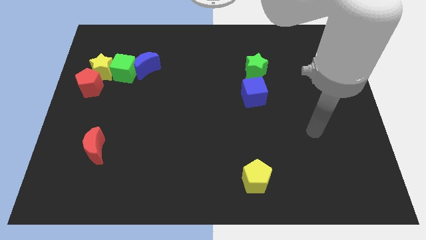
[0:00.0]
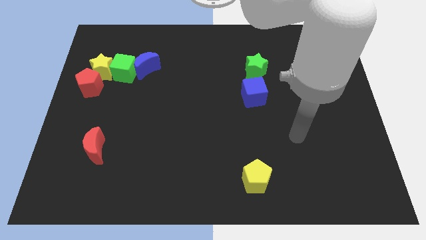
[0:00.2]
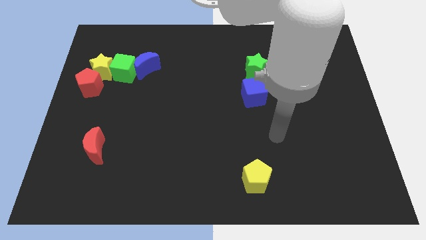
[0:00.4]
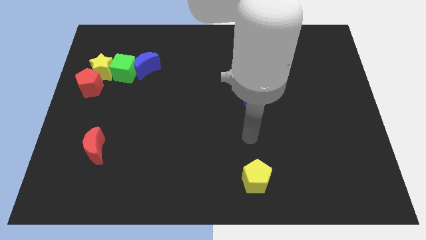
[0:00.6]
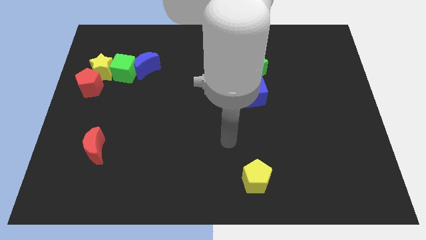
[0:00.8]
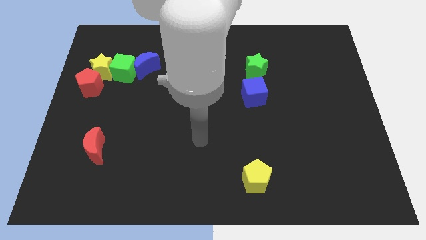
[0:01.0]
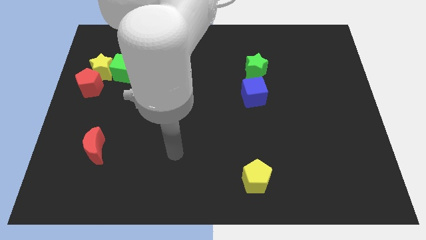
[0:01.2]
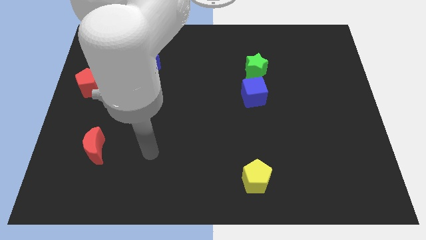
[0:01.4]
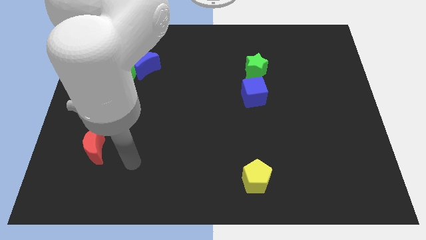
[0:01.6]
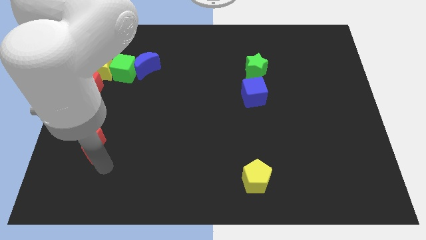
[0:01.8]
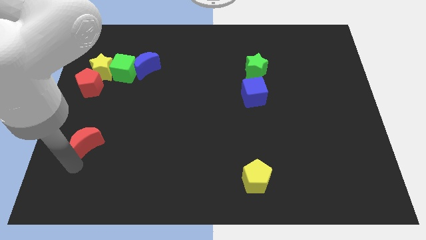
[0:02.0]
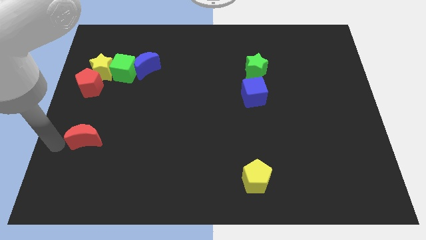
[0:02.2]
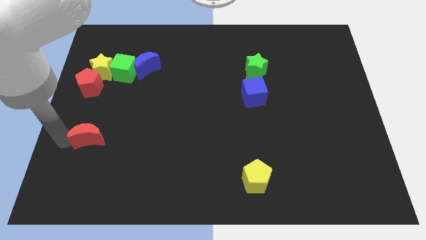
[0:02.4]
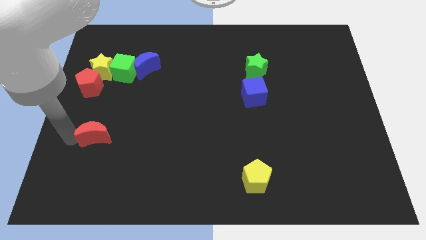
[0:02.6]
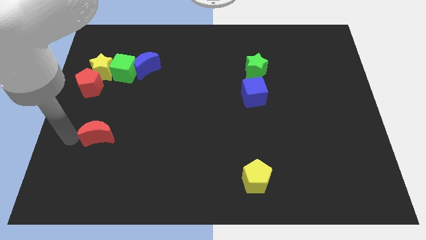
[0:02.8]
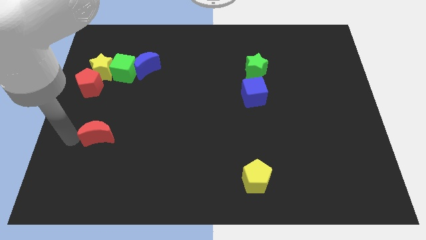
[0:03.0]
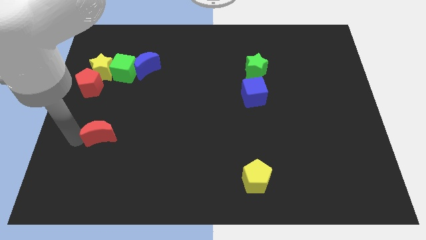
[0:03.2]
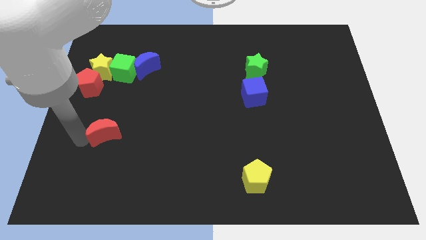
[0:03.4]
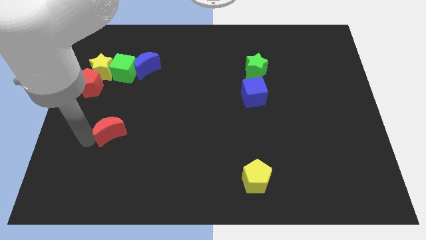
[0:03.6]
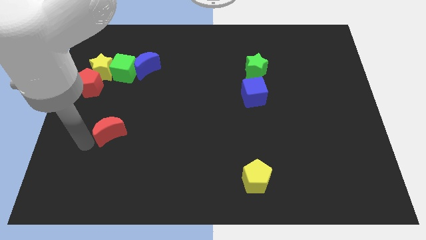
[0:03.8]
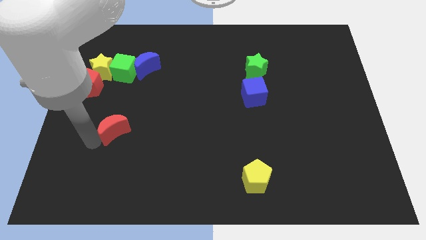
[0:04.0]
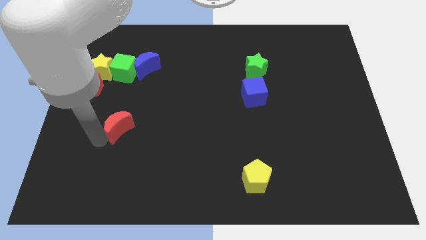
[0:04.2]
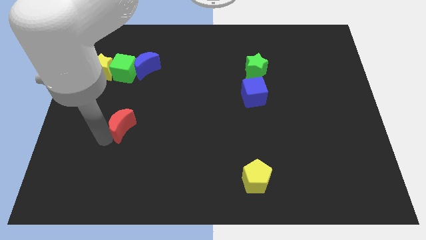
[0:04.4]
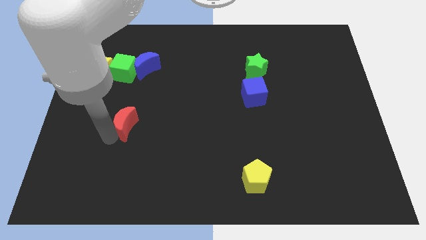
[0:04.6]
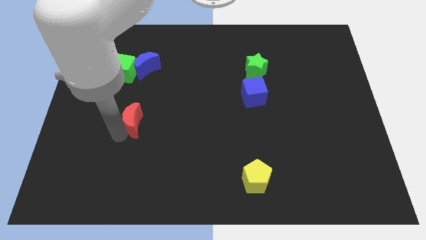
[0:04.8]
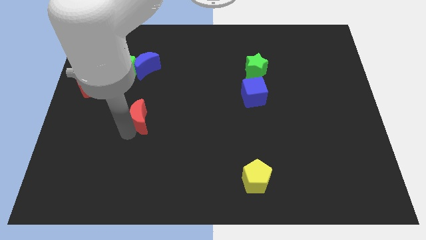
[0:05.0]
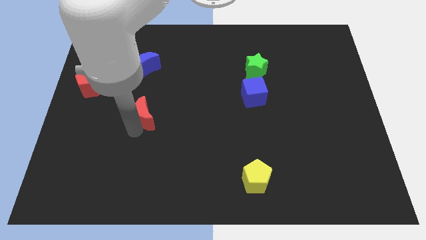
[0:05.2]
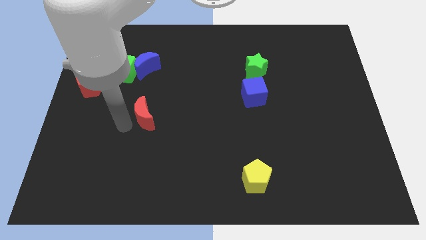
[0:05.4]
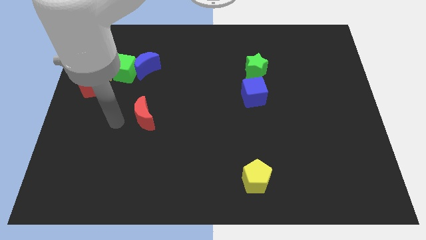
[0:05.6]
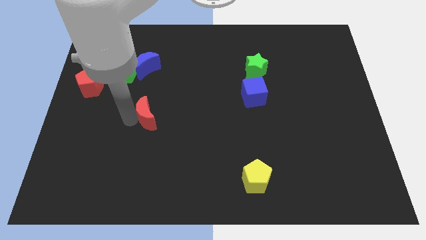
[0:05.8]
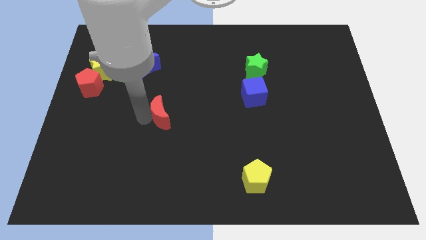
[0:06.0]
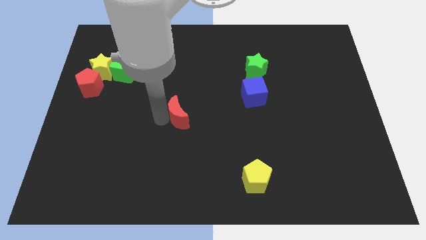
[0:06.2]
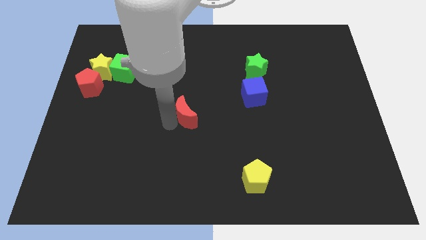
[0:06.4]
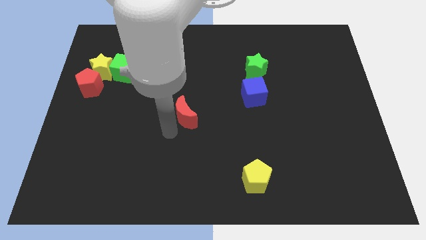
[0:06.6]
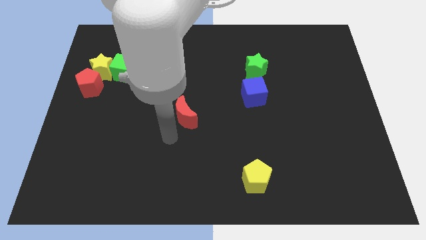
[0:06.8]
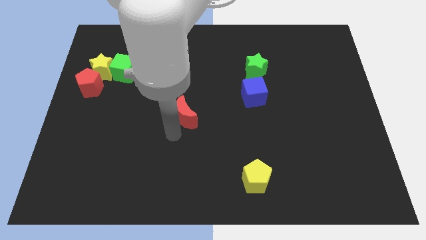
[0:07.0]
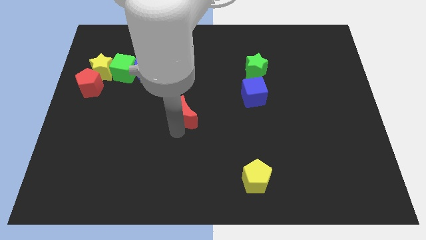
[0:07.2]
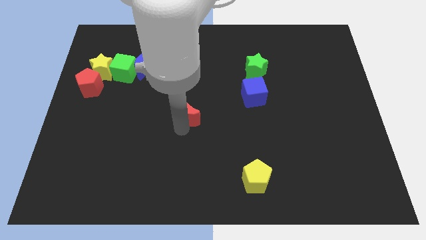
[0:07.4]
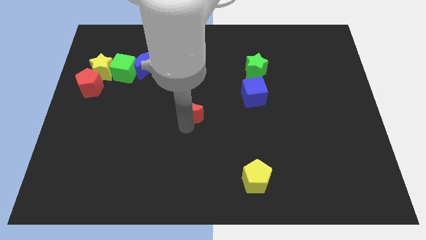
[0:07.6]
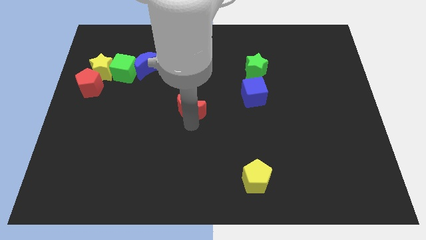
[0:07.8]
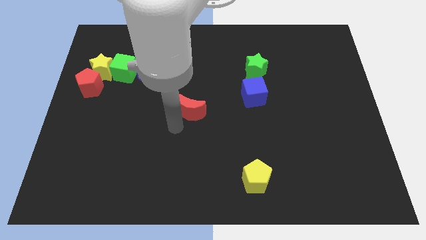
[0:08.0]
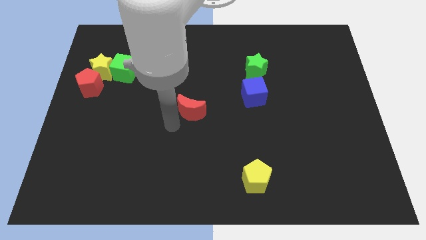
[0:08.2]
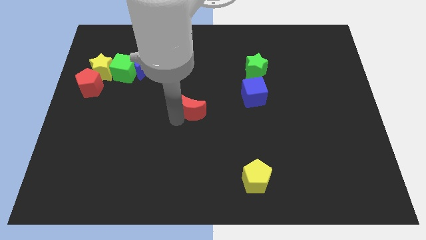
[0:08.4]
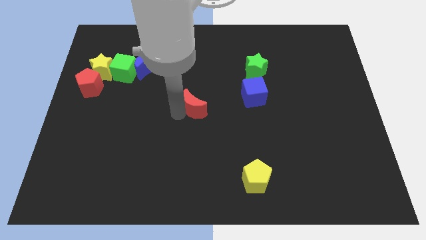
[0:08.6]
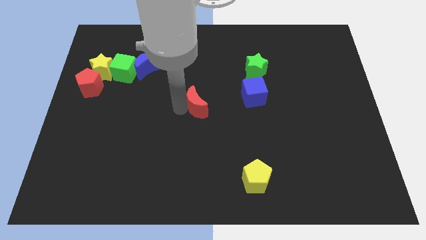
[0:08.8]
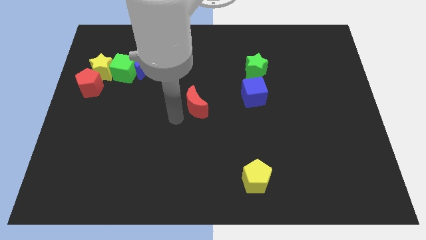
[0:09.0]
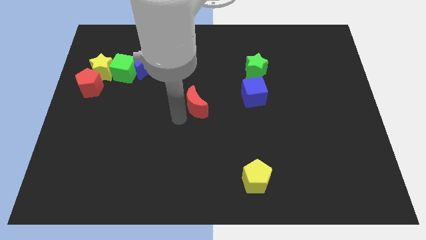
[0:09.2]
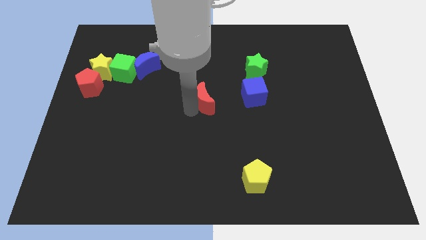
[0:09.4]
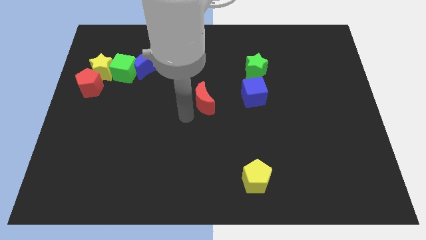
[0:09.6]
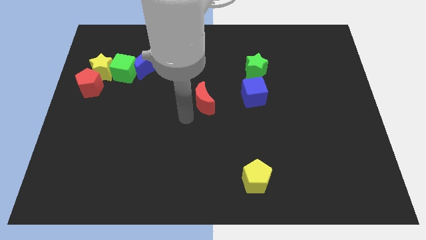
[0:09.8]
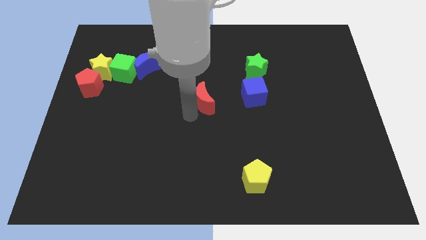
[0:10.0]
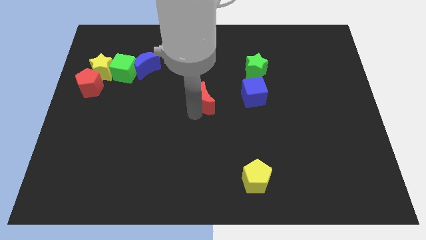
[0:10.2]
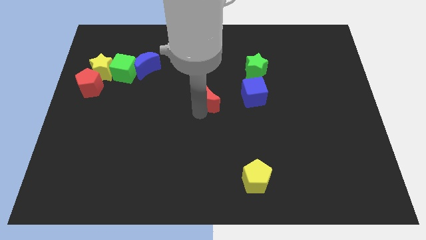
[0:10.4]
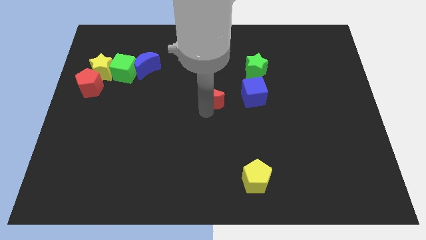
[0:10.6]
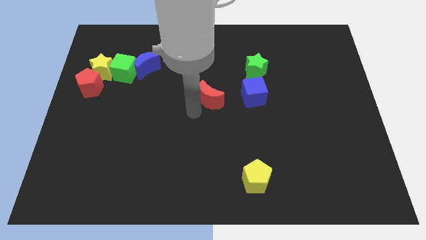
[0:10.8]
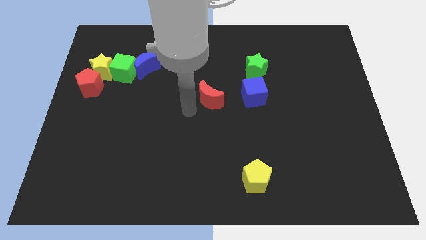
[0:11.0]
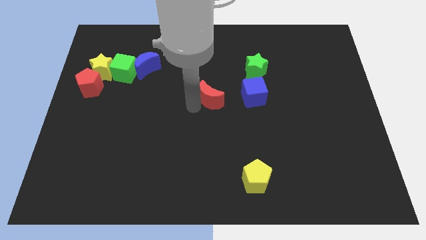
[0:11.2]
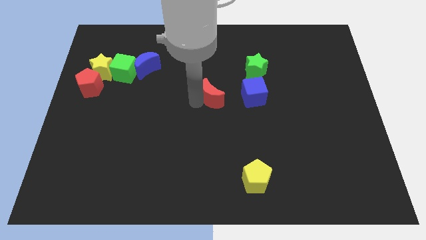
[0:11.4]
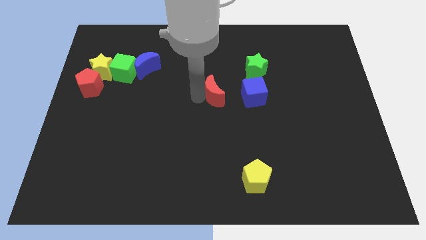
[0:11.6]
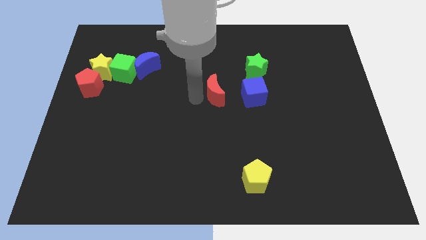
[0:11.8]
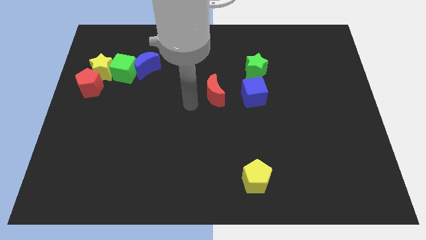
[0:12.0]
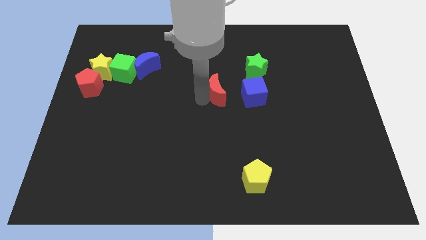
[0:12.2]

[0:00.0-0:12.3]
push the red moon diagonally down and to the left of the green star

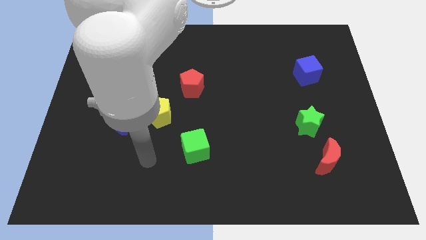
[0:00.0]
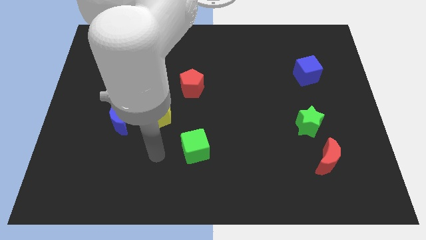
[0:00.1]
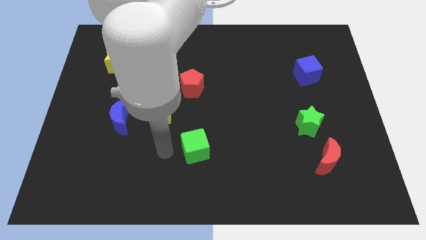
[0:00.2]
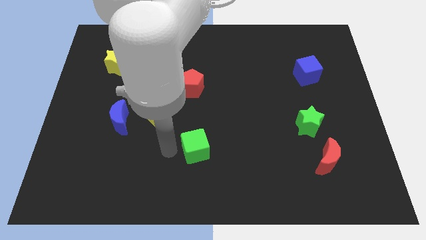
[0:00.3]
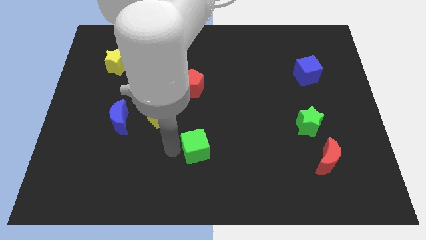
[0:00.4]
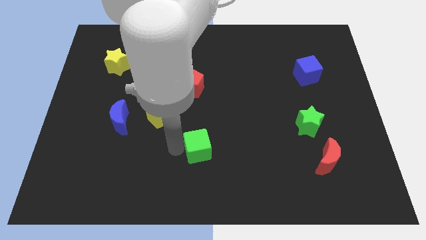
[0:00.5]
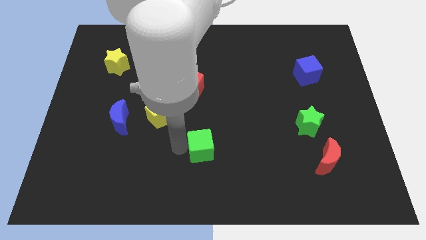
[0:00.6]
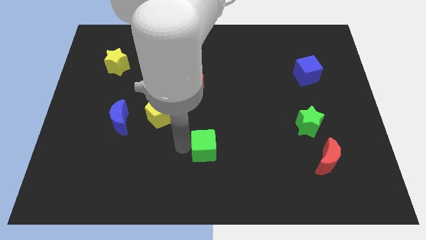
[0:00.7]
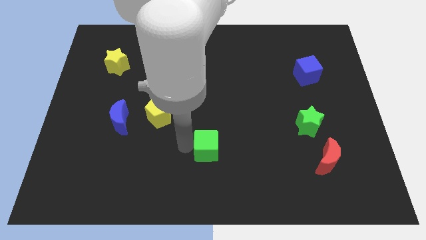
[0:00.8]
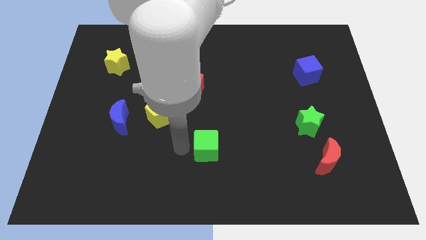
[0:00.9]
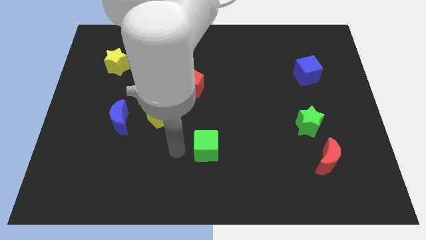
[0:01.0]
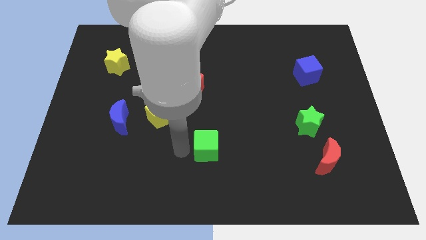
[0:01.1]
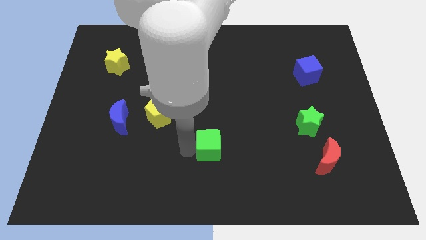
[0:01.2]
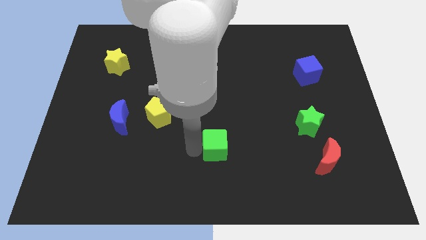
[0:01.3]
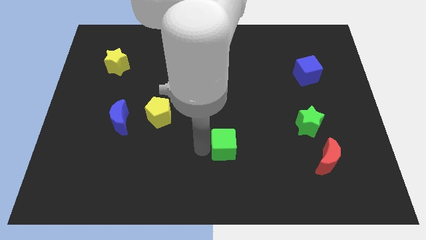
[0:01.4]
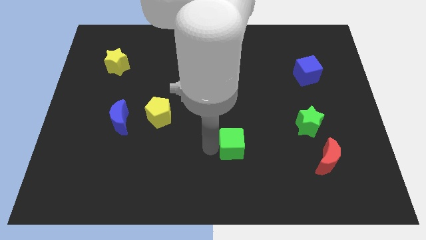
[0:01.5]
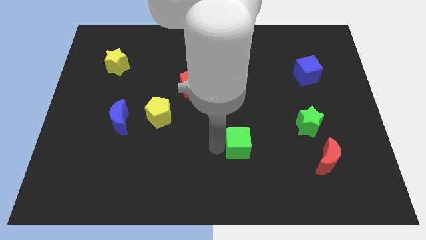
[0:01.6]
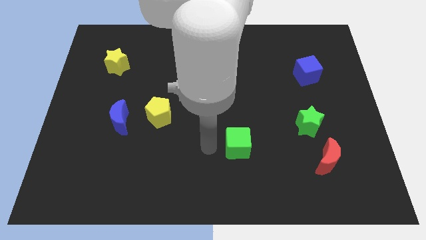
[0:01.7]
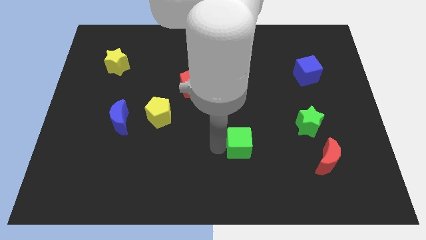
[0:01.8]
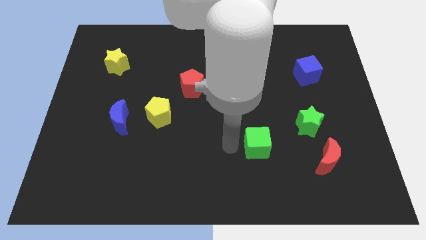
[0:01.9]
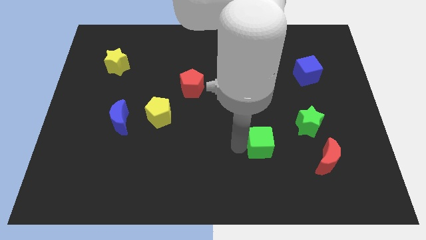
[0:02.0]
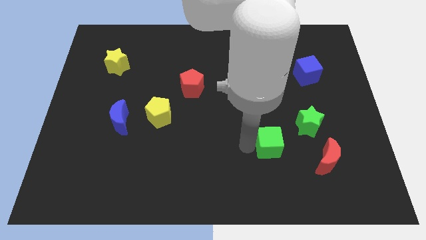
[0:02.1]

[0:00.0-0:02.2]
slide the green cube to the bottom left side of the green star
